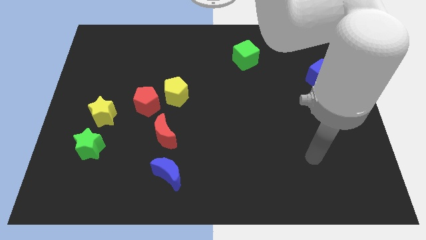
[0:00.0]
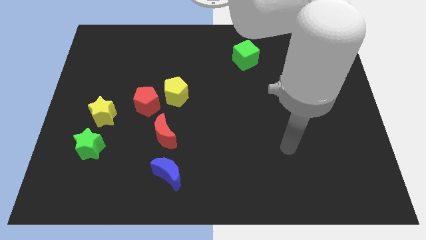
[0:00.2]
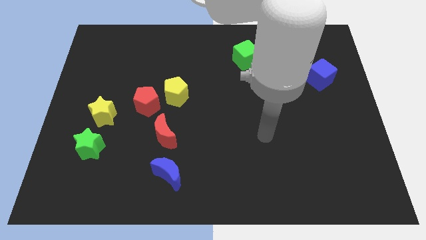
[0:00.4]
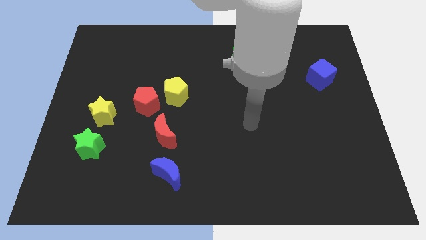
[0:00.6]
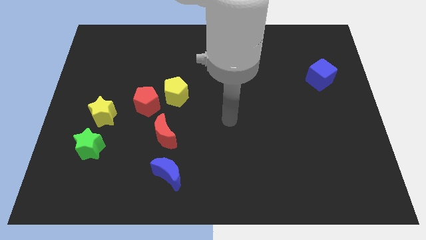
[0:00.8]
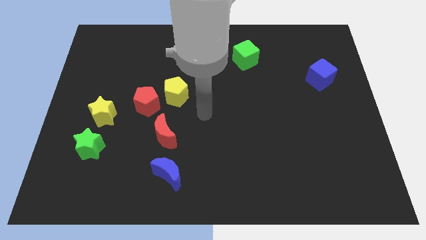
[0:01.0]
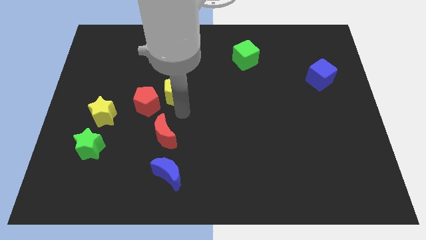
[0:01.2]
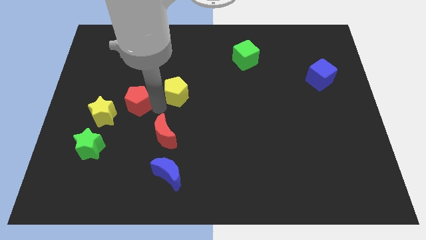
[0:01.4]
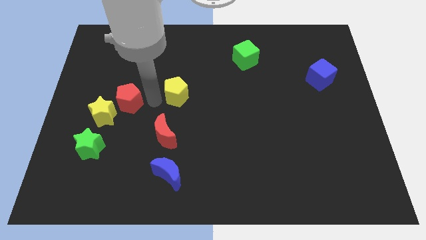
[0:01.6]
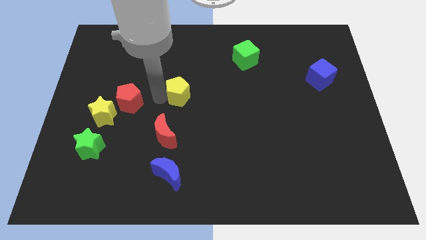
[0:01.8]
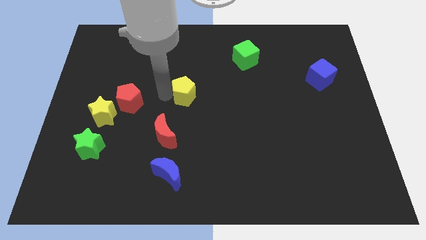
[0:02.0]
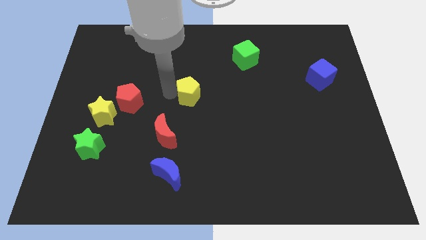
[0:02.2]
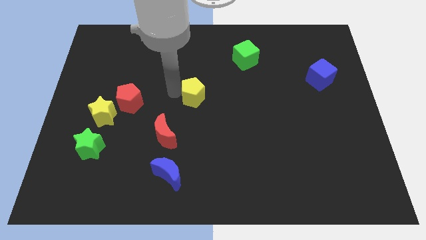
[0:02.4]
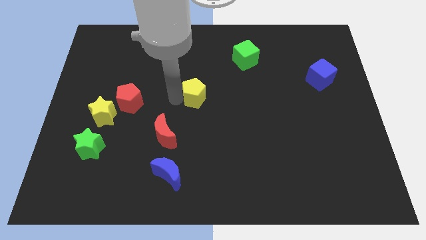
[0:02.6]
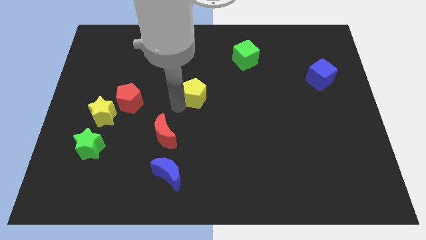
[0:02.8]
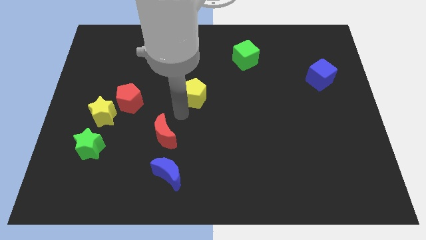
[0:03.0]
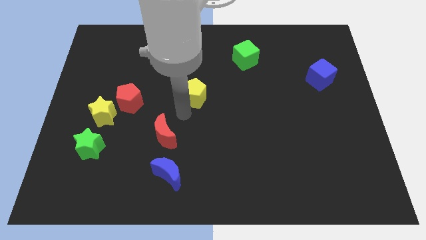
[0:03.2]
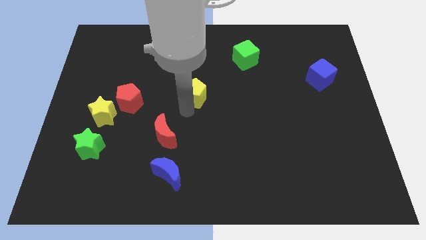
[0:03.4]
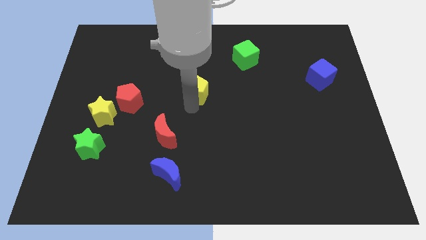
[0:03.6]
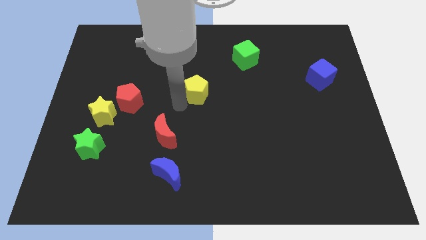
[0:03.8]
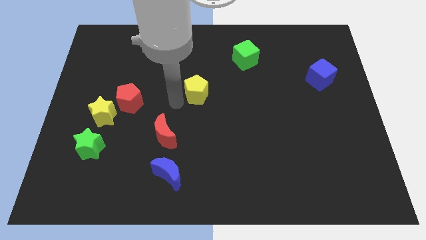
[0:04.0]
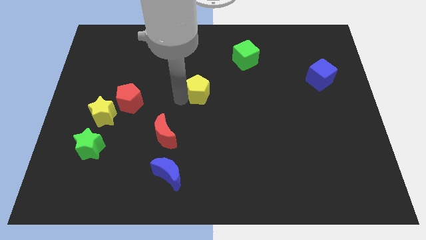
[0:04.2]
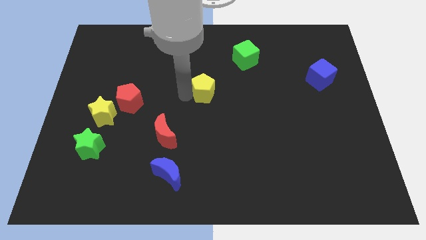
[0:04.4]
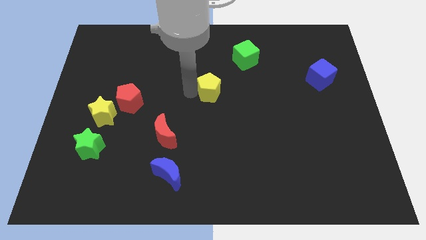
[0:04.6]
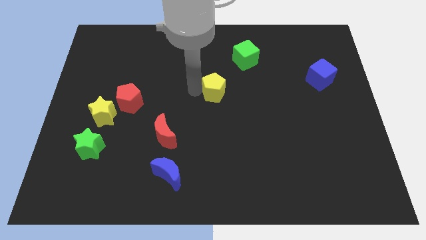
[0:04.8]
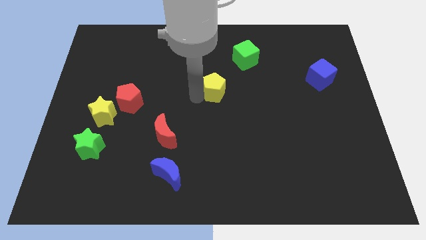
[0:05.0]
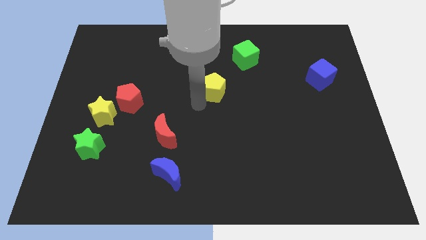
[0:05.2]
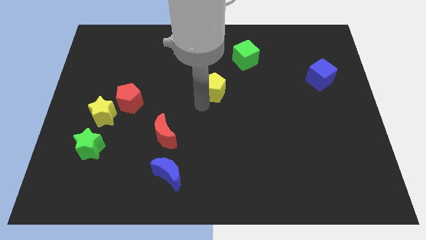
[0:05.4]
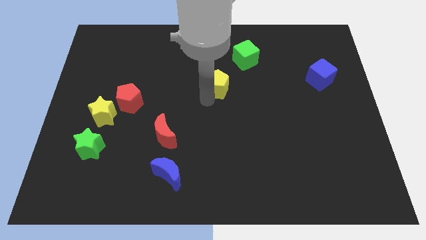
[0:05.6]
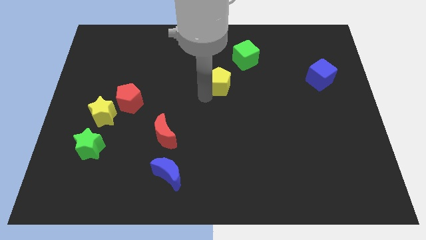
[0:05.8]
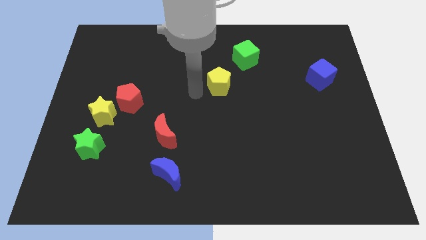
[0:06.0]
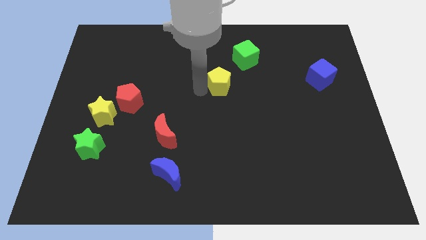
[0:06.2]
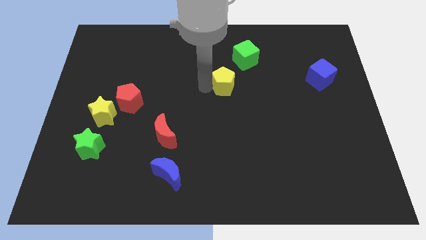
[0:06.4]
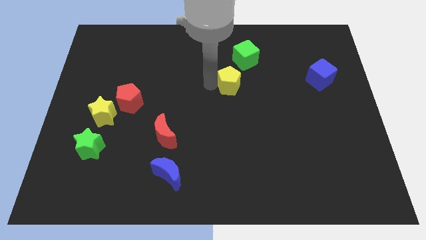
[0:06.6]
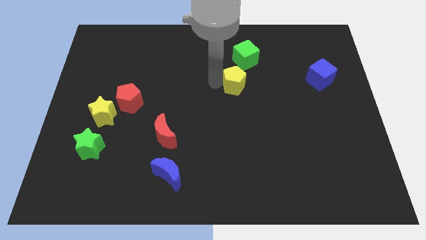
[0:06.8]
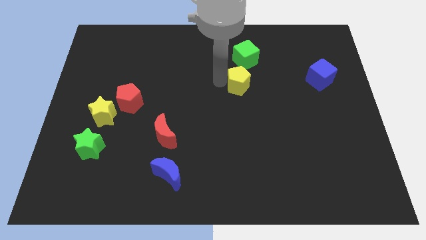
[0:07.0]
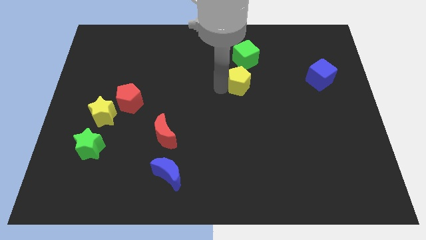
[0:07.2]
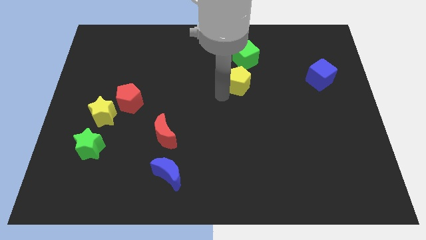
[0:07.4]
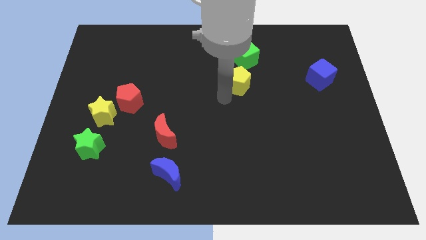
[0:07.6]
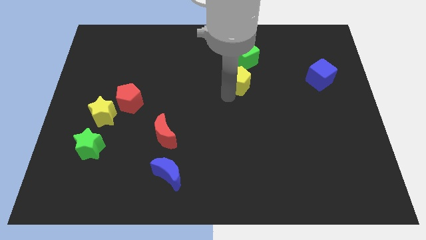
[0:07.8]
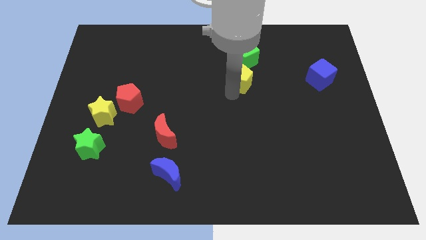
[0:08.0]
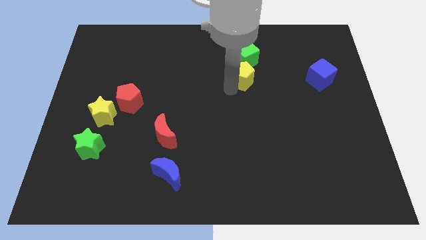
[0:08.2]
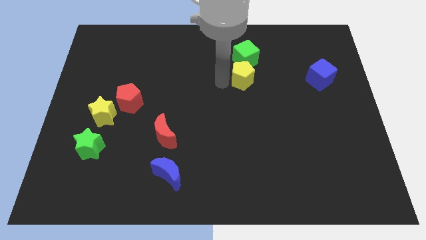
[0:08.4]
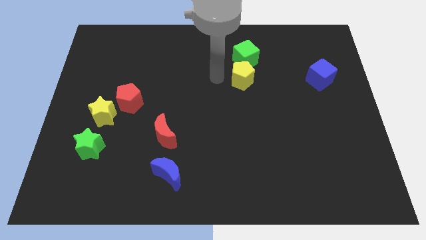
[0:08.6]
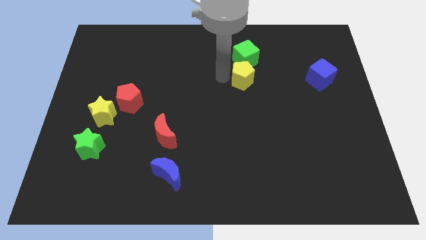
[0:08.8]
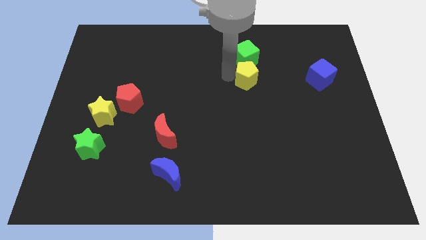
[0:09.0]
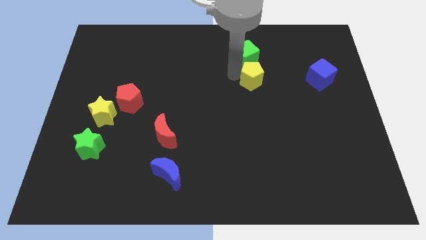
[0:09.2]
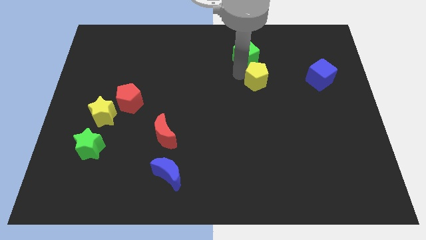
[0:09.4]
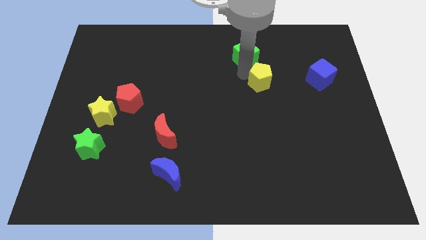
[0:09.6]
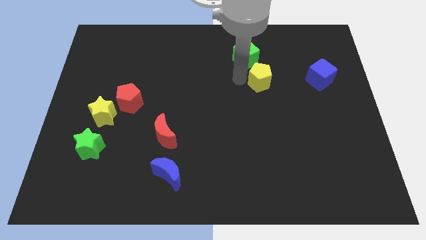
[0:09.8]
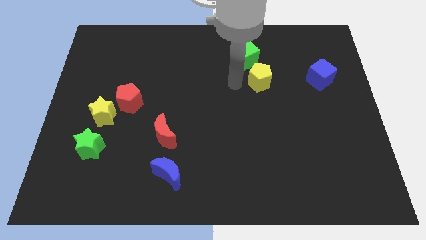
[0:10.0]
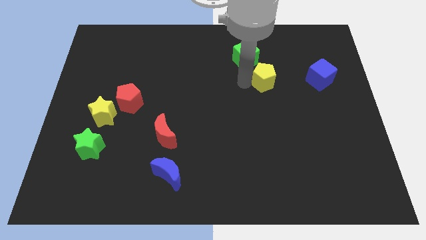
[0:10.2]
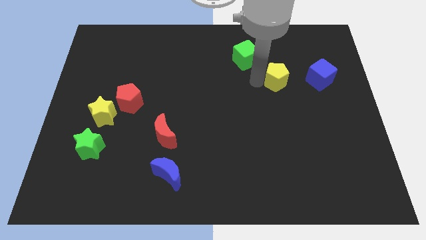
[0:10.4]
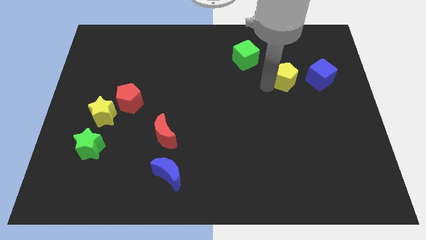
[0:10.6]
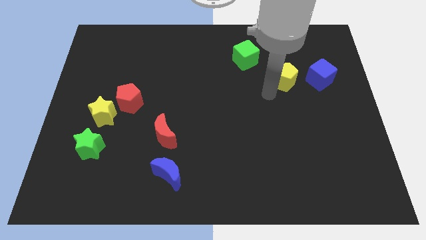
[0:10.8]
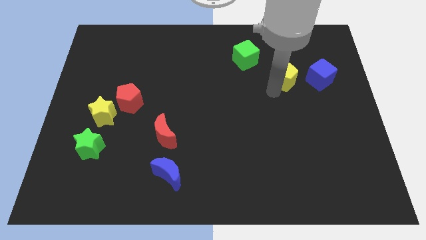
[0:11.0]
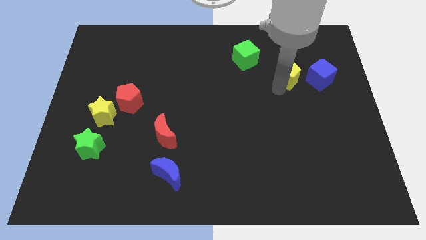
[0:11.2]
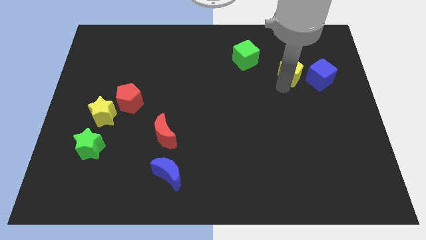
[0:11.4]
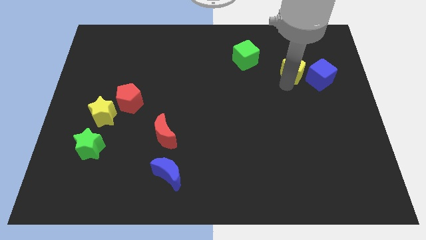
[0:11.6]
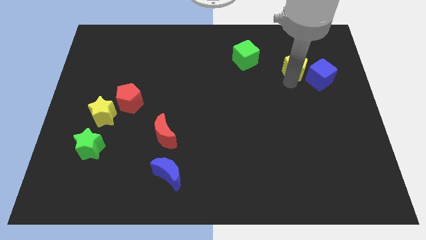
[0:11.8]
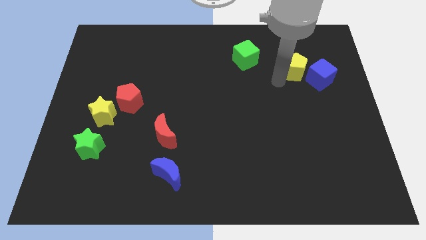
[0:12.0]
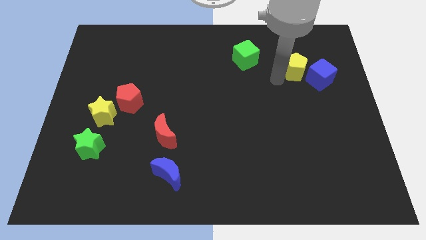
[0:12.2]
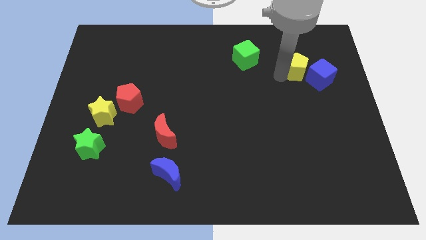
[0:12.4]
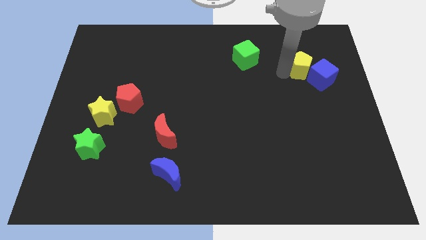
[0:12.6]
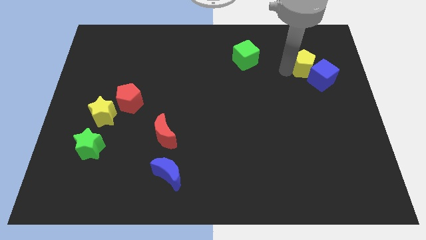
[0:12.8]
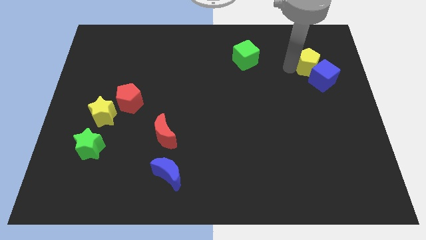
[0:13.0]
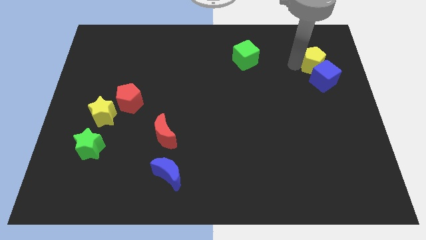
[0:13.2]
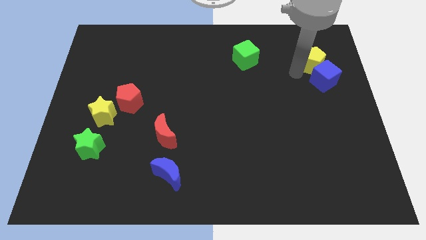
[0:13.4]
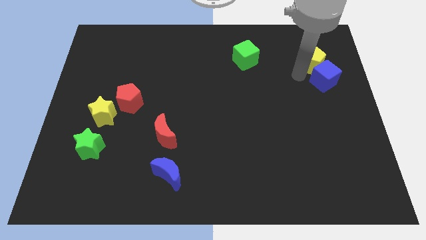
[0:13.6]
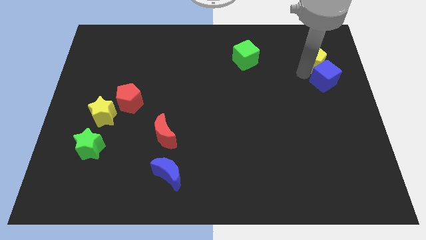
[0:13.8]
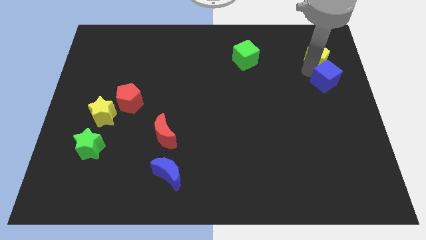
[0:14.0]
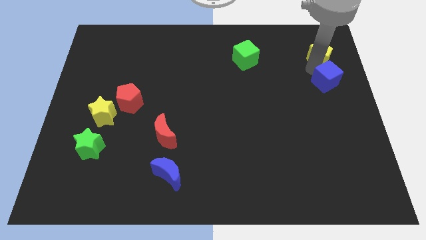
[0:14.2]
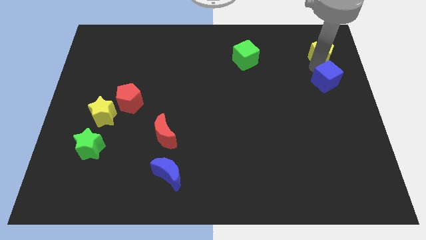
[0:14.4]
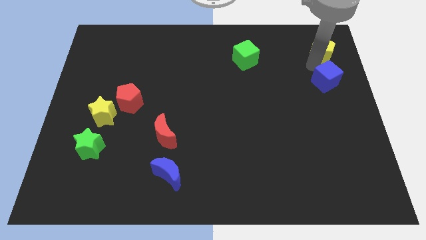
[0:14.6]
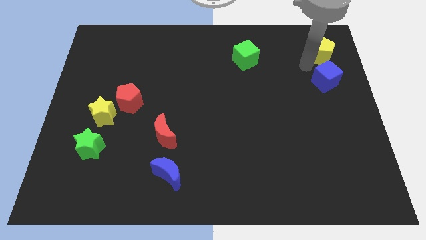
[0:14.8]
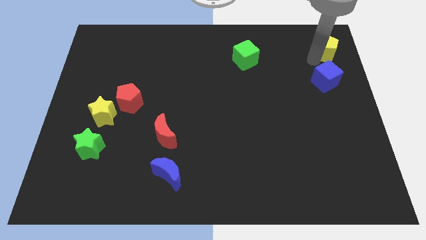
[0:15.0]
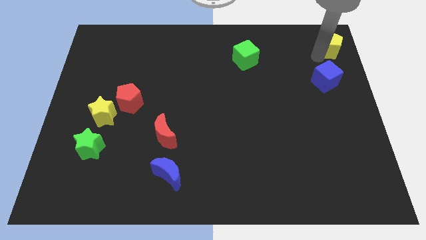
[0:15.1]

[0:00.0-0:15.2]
push the yellow pentagon to the top right corner
